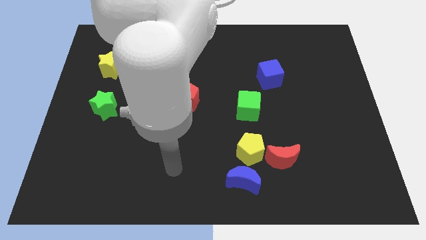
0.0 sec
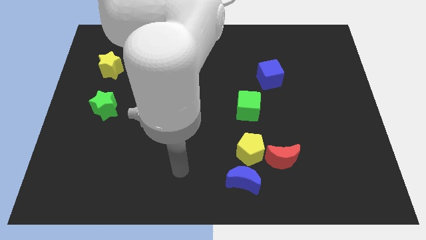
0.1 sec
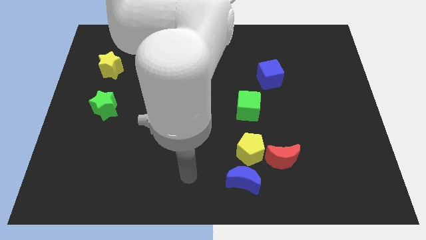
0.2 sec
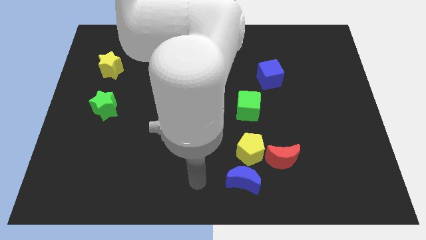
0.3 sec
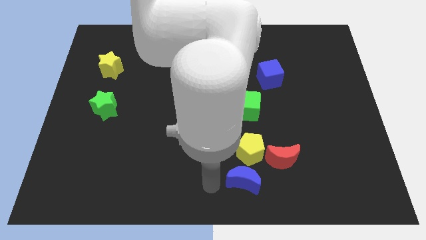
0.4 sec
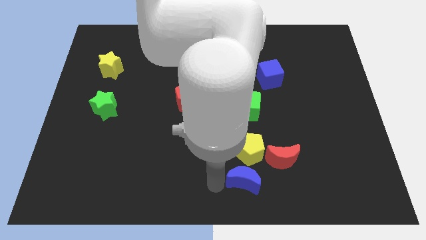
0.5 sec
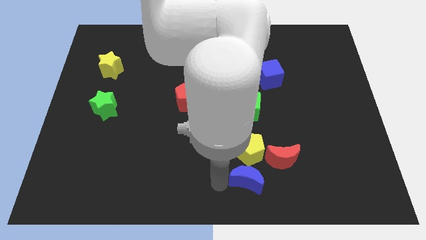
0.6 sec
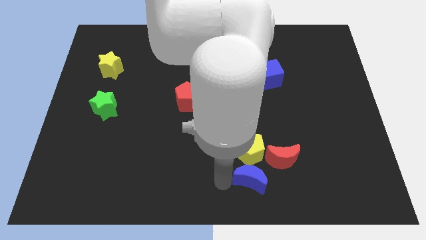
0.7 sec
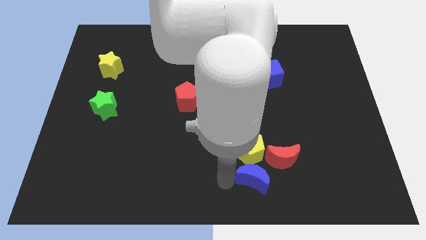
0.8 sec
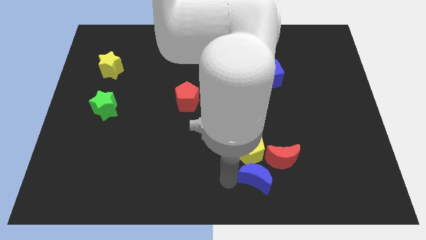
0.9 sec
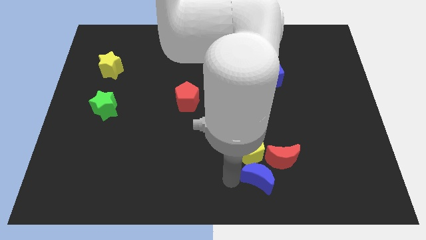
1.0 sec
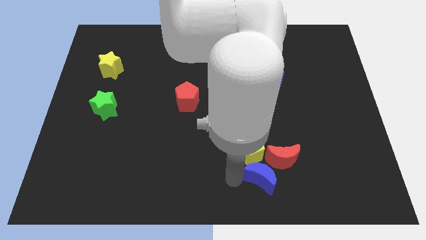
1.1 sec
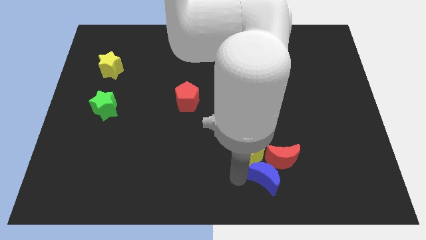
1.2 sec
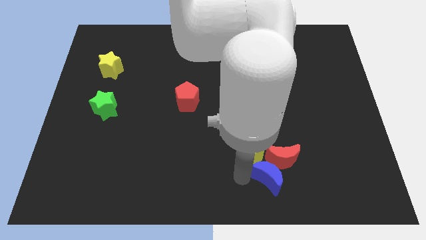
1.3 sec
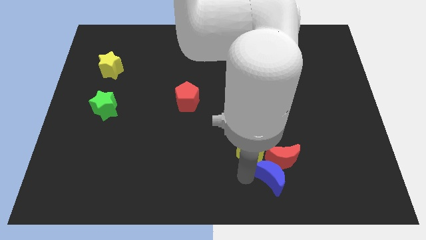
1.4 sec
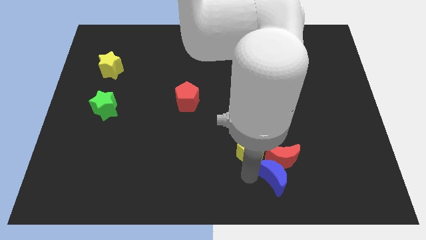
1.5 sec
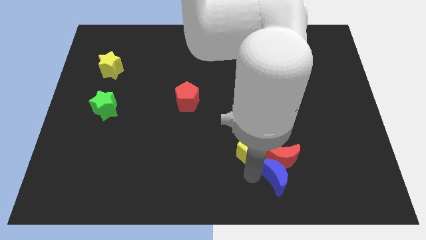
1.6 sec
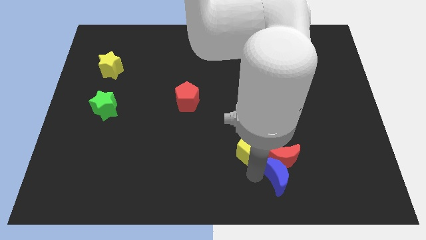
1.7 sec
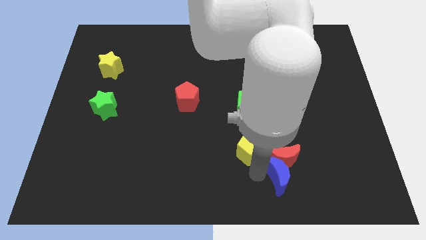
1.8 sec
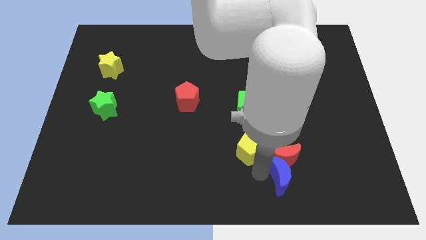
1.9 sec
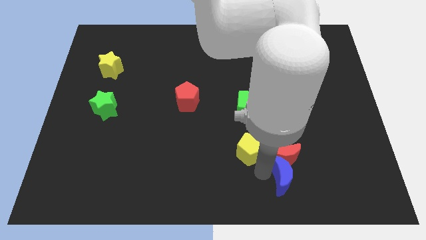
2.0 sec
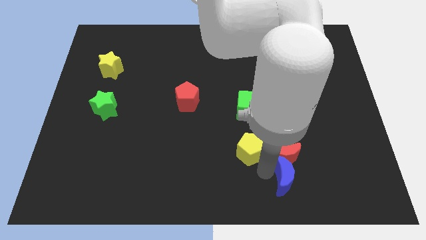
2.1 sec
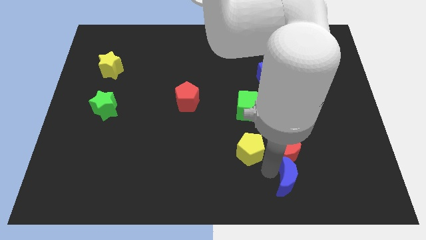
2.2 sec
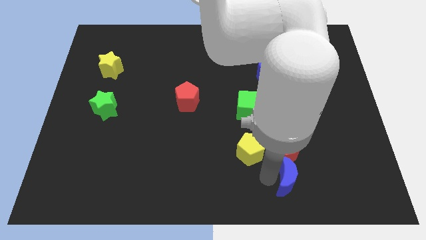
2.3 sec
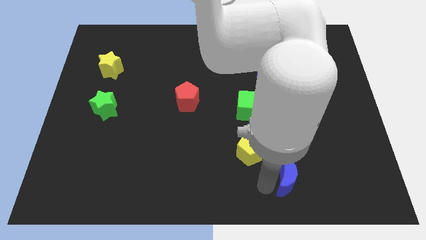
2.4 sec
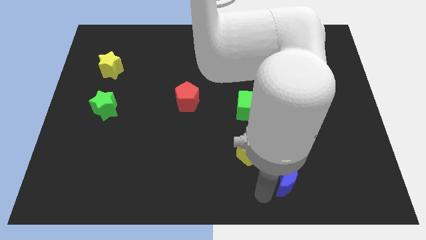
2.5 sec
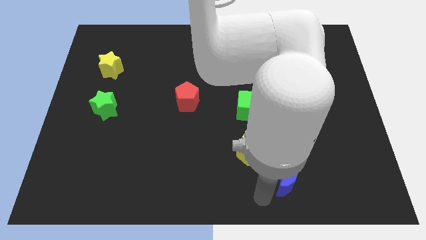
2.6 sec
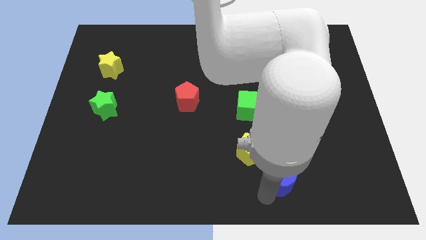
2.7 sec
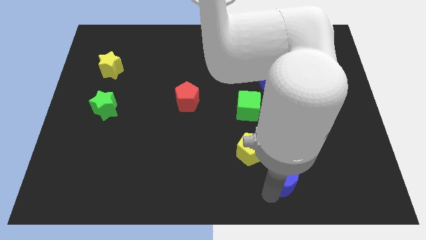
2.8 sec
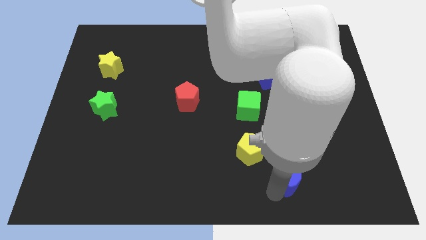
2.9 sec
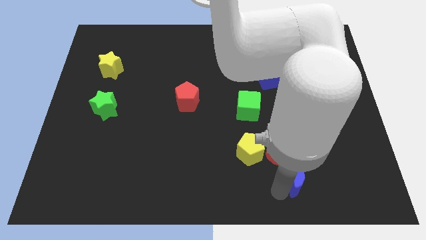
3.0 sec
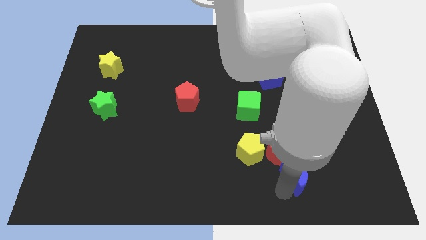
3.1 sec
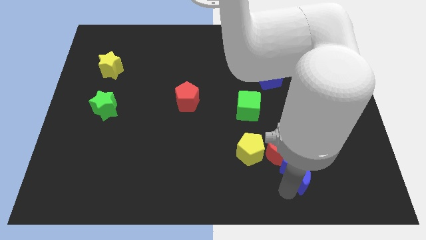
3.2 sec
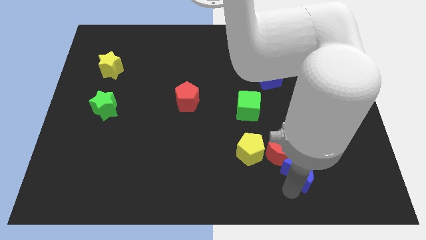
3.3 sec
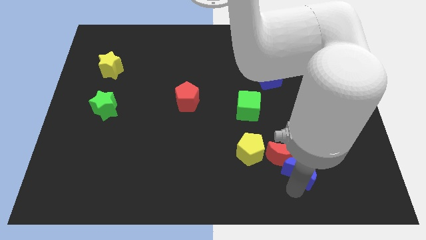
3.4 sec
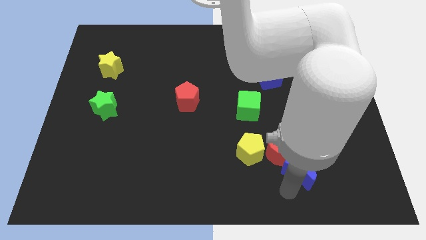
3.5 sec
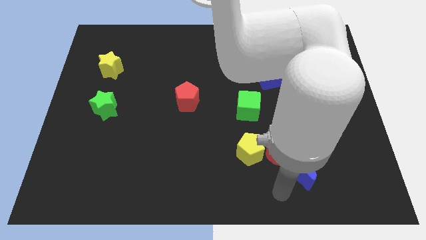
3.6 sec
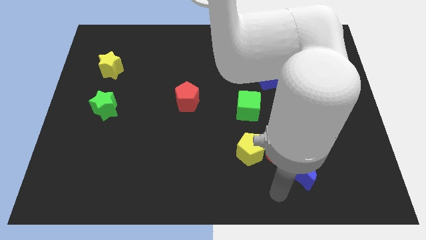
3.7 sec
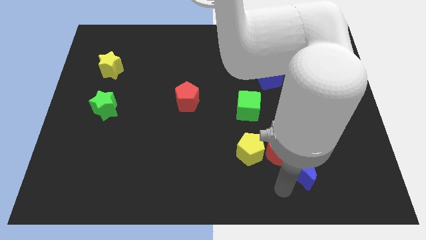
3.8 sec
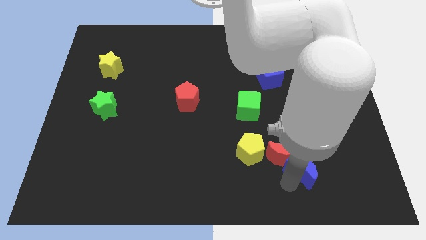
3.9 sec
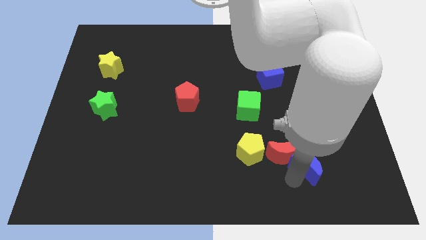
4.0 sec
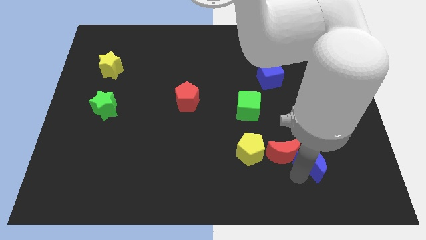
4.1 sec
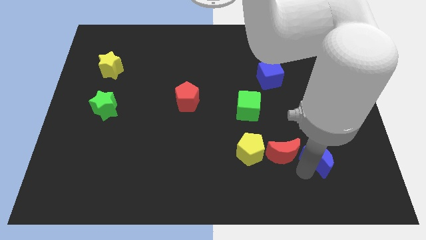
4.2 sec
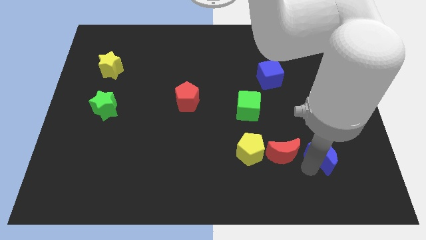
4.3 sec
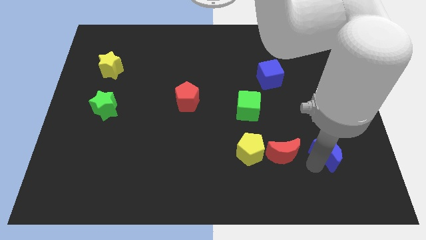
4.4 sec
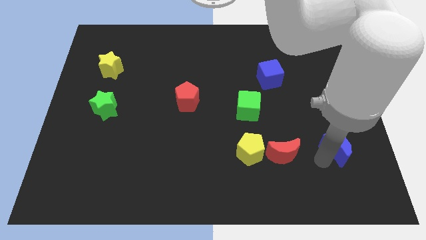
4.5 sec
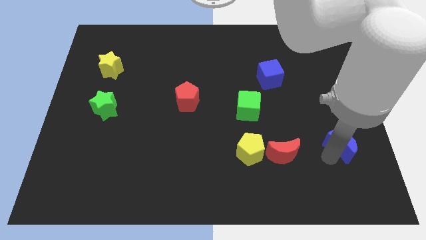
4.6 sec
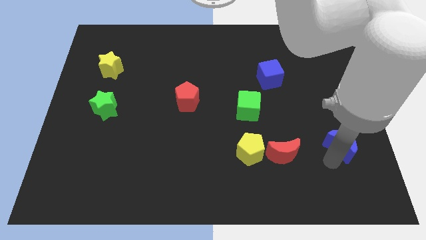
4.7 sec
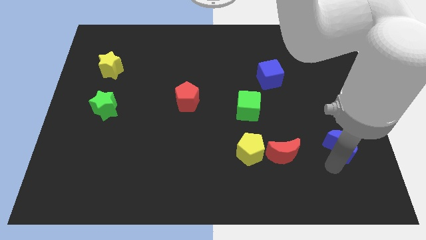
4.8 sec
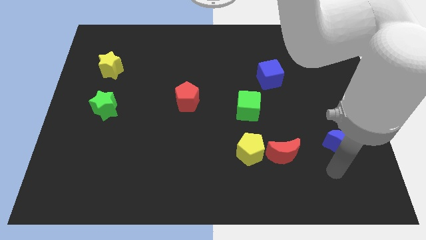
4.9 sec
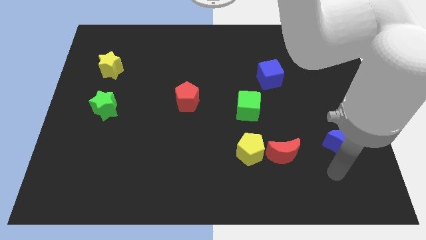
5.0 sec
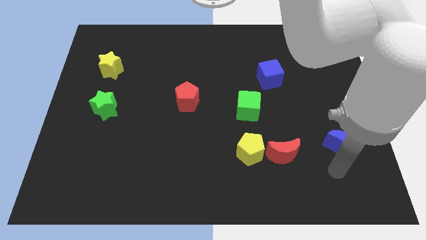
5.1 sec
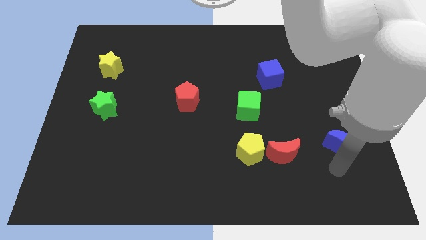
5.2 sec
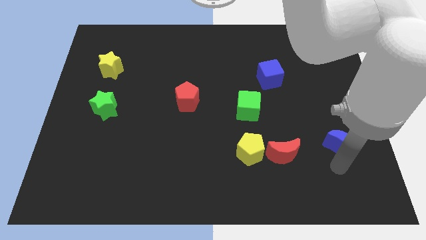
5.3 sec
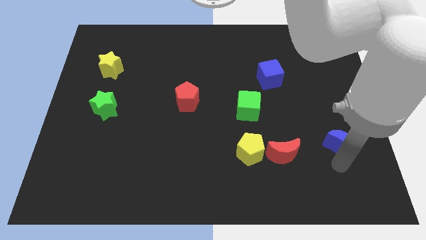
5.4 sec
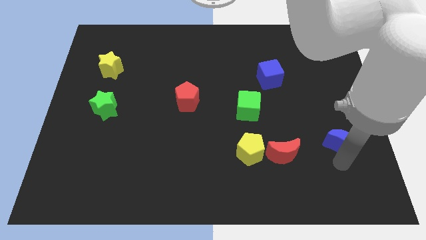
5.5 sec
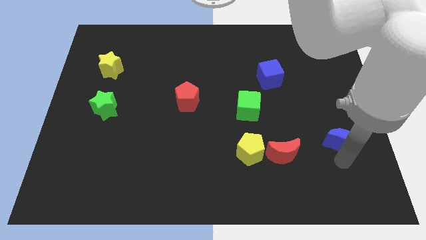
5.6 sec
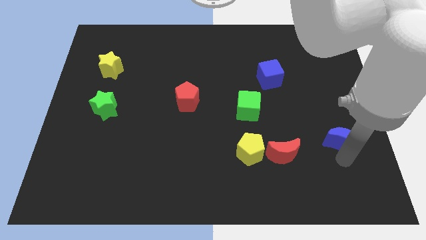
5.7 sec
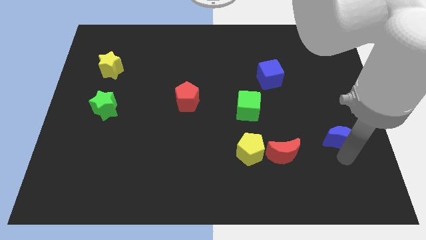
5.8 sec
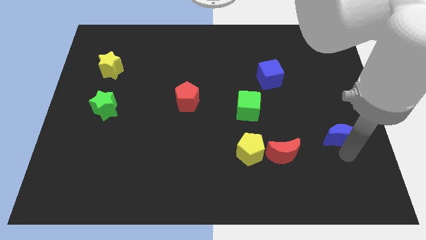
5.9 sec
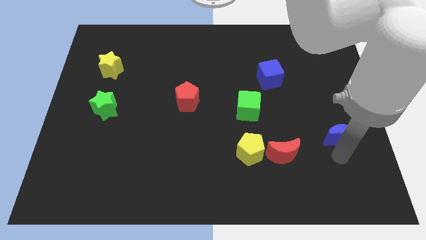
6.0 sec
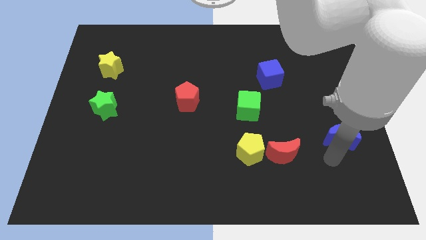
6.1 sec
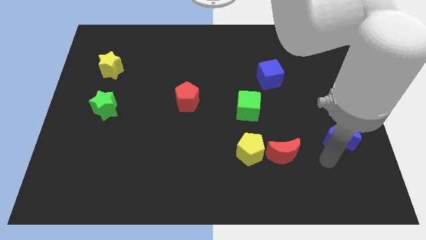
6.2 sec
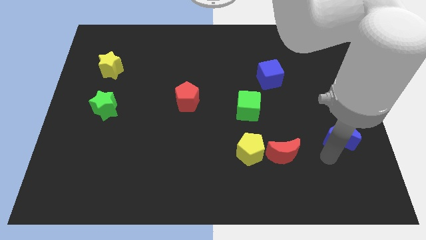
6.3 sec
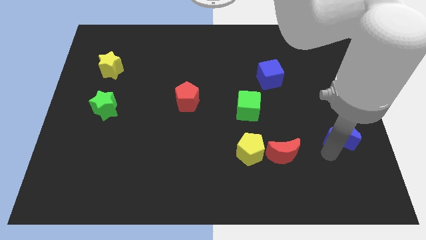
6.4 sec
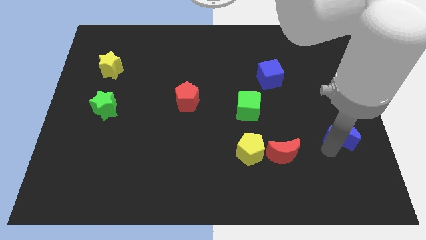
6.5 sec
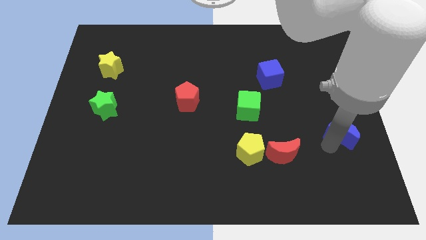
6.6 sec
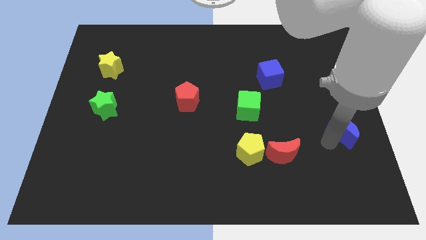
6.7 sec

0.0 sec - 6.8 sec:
move the blue moon to the right side of the board
